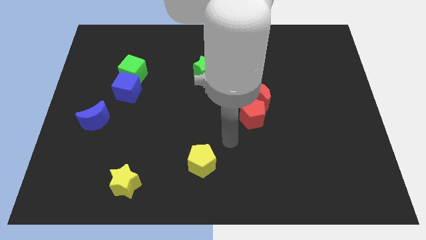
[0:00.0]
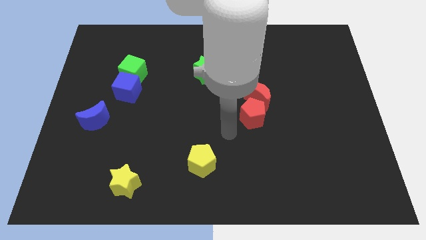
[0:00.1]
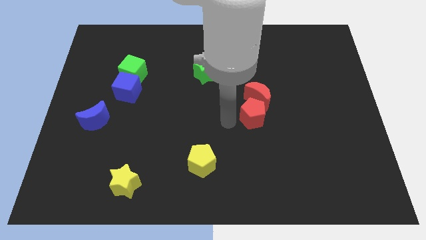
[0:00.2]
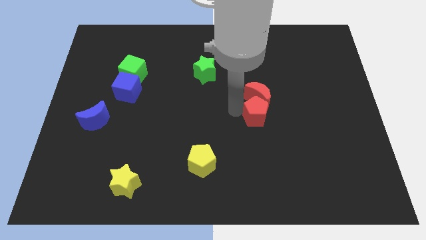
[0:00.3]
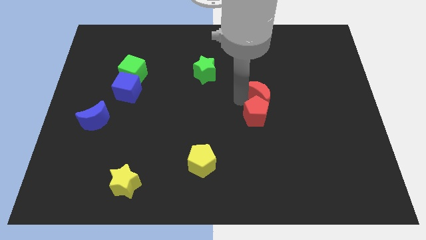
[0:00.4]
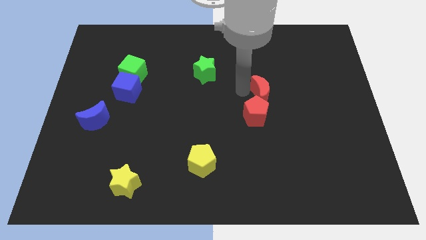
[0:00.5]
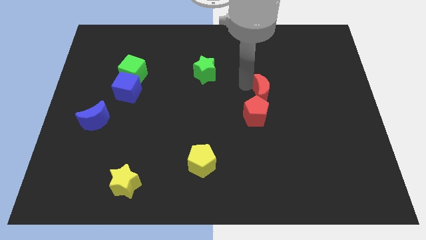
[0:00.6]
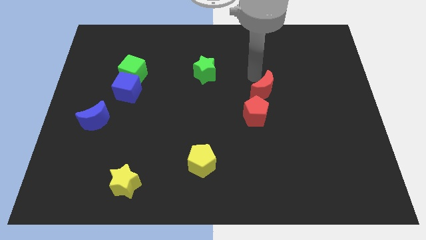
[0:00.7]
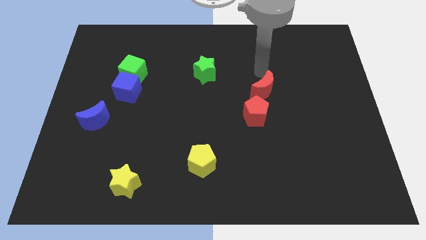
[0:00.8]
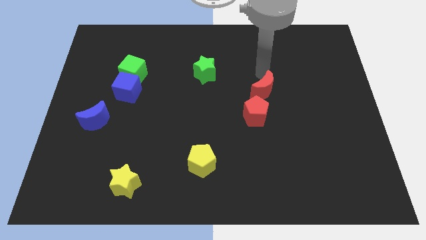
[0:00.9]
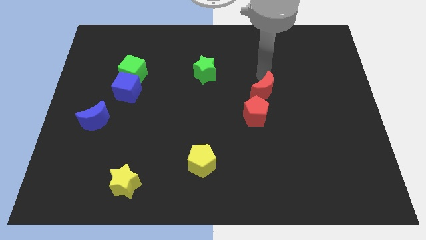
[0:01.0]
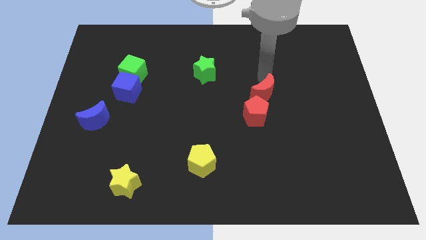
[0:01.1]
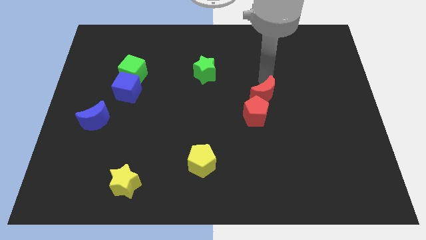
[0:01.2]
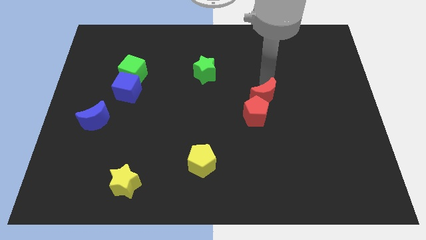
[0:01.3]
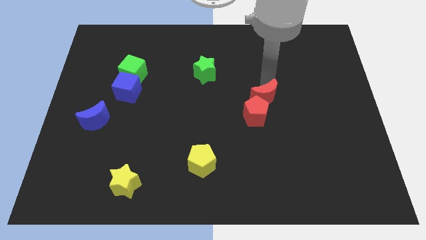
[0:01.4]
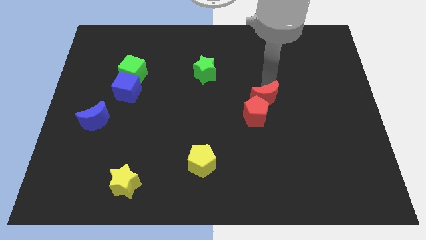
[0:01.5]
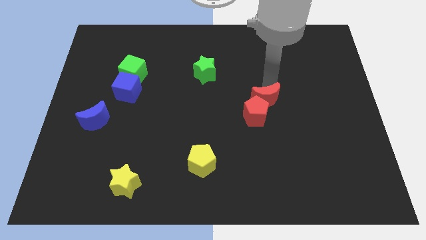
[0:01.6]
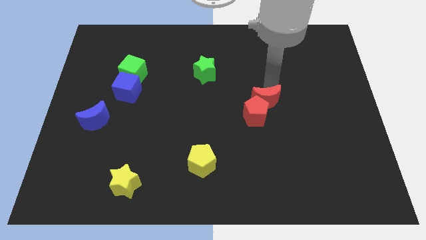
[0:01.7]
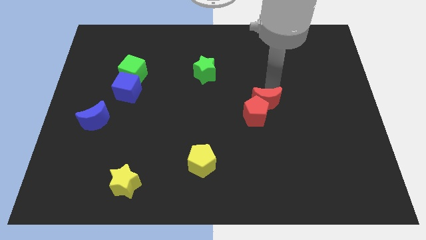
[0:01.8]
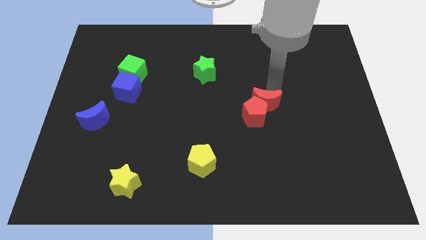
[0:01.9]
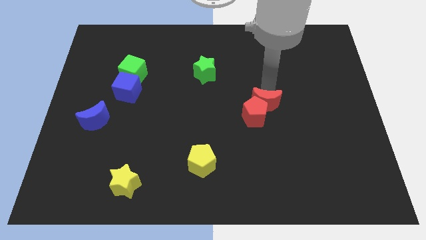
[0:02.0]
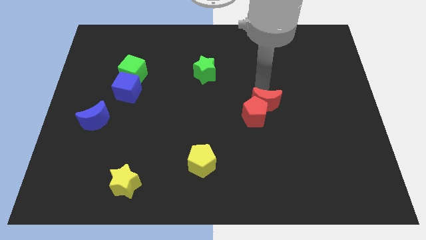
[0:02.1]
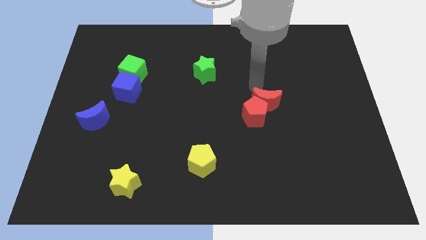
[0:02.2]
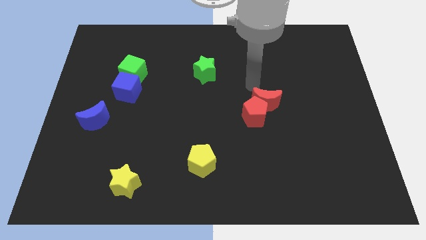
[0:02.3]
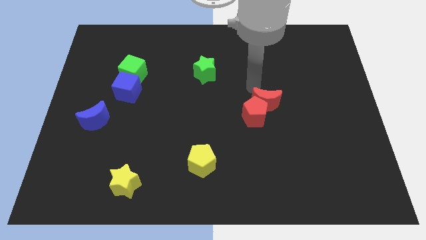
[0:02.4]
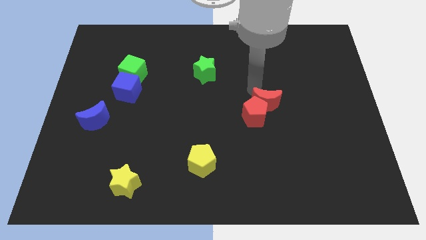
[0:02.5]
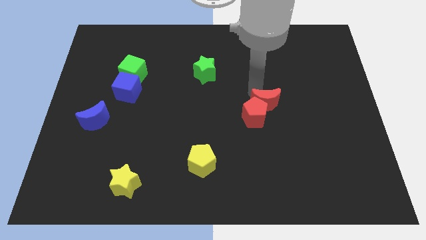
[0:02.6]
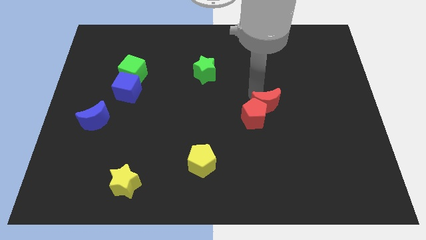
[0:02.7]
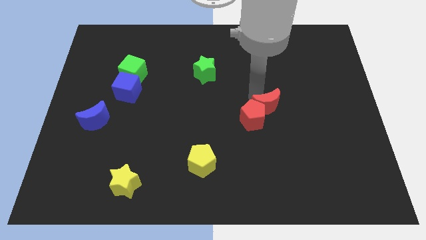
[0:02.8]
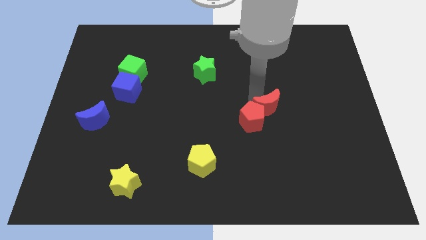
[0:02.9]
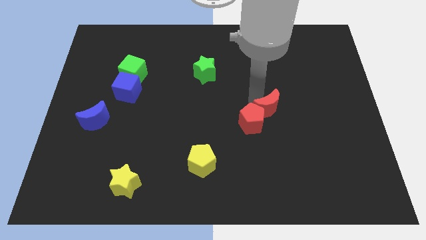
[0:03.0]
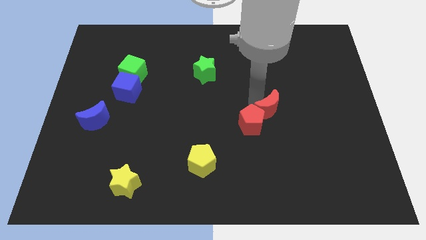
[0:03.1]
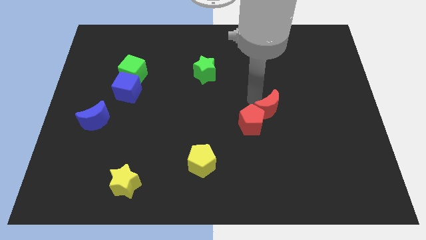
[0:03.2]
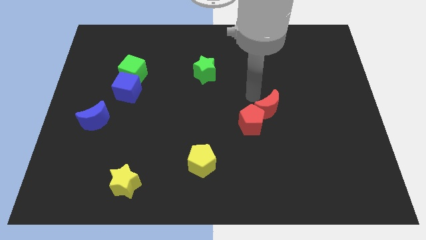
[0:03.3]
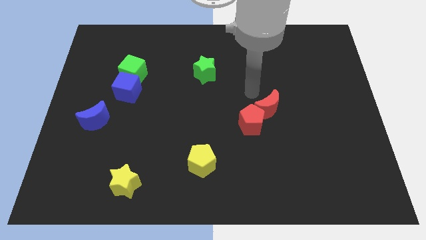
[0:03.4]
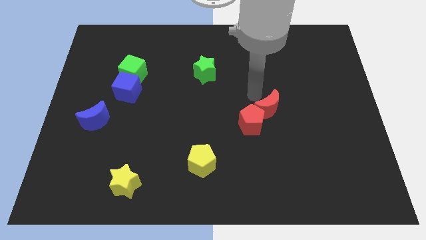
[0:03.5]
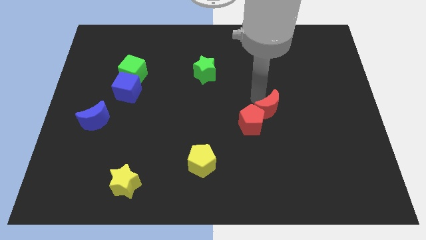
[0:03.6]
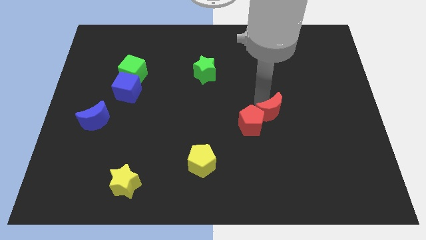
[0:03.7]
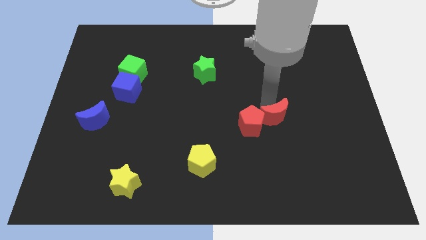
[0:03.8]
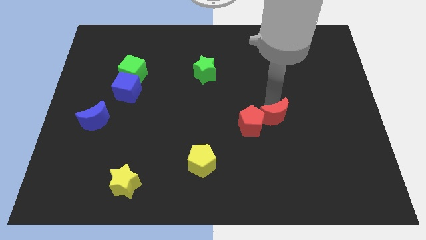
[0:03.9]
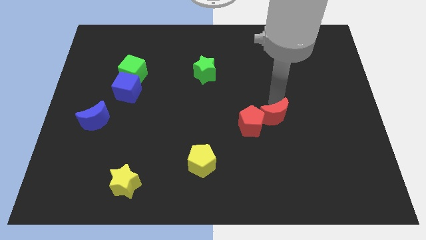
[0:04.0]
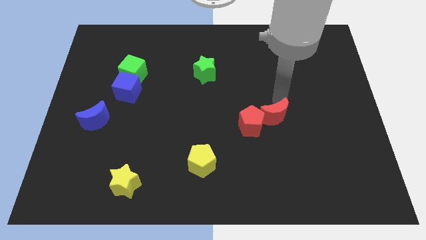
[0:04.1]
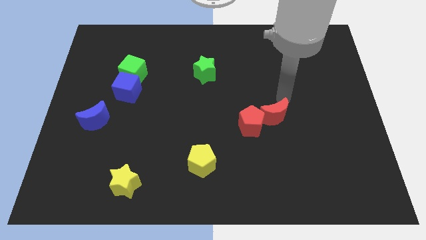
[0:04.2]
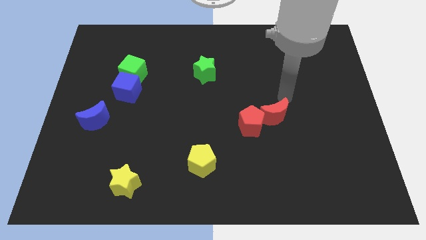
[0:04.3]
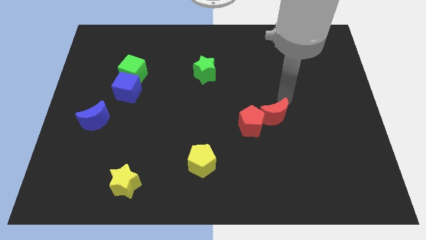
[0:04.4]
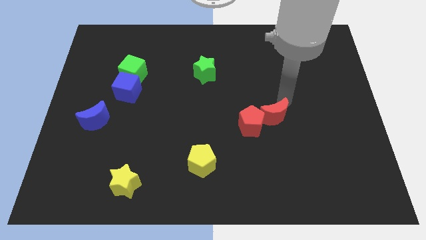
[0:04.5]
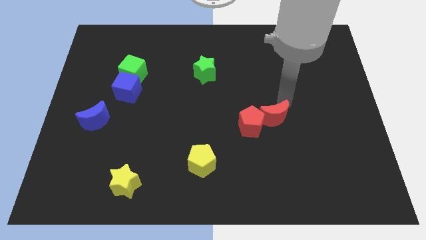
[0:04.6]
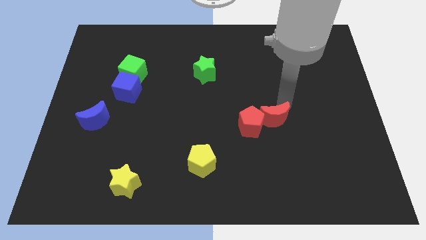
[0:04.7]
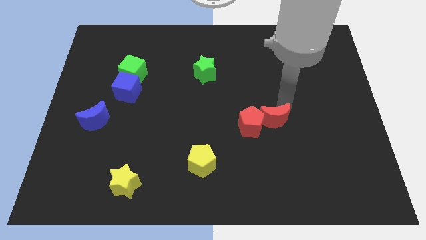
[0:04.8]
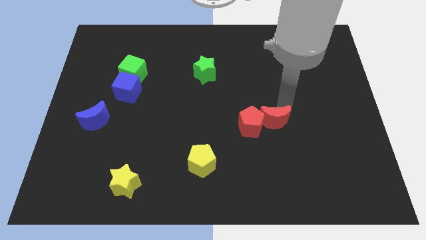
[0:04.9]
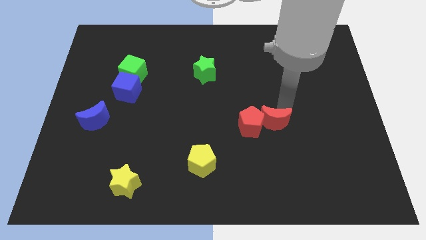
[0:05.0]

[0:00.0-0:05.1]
move the red moon a little bit down

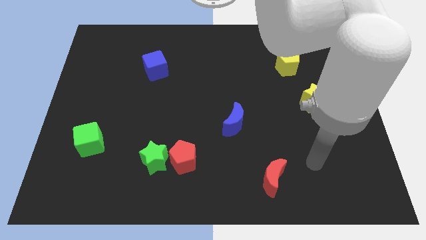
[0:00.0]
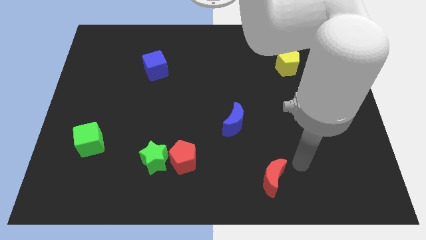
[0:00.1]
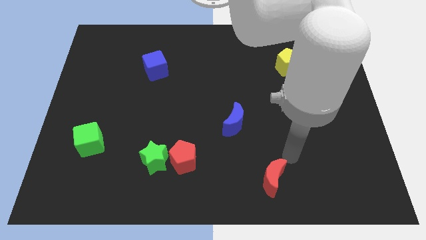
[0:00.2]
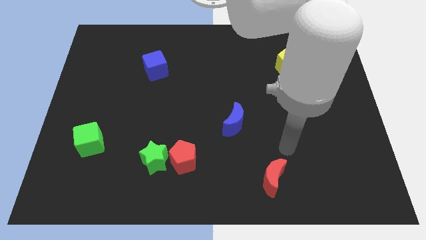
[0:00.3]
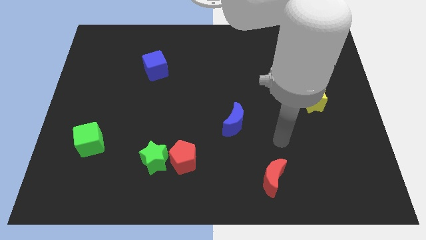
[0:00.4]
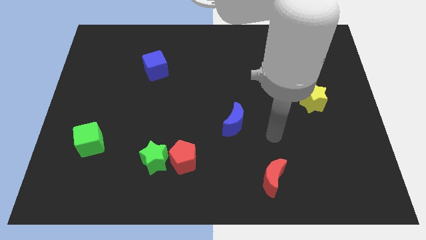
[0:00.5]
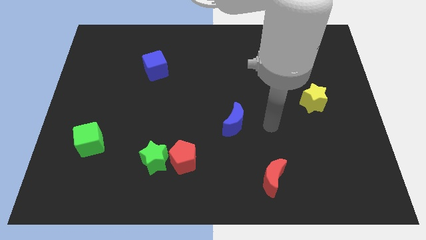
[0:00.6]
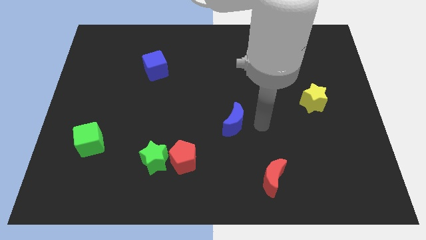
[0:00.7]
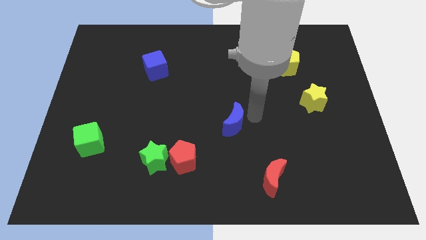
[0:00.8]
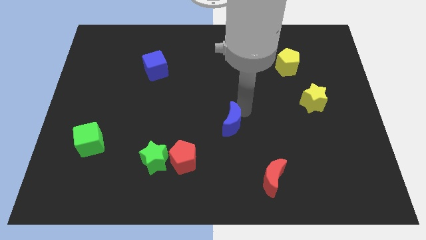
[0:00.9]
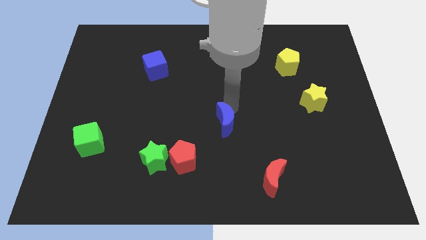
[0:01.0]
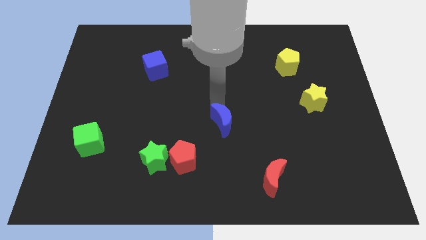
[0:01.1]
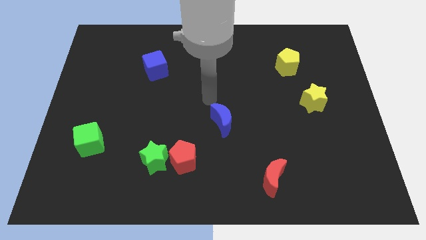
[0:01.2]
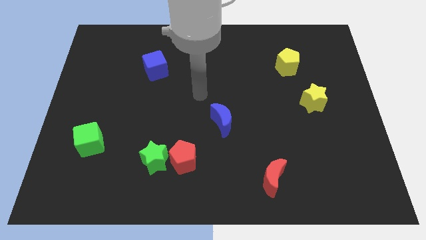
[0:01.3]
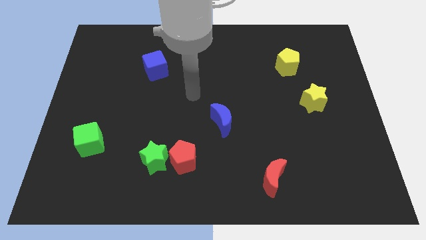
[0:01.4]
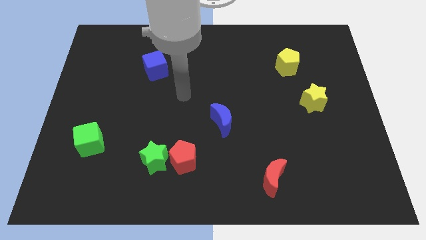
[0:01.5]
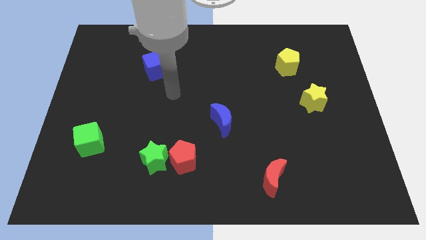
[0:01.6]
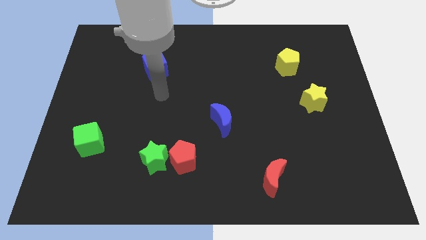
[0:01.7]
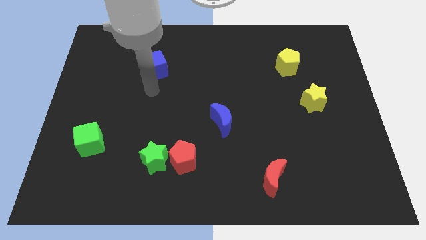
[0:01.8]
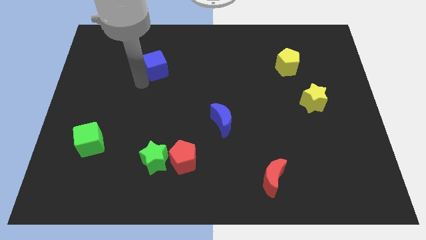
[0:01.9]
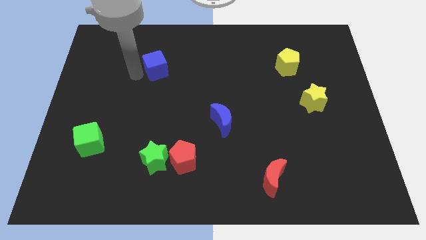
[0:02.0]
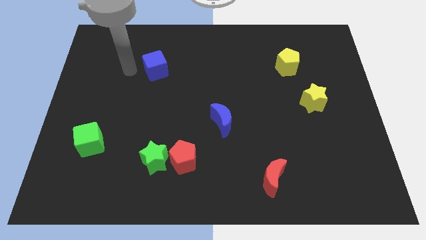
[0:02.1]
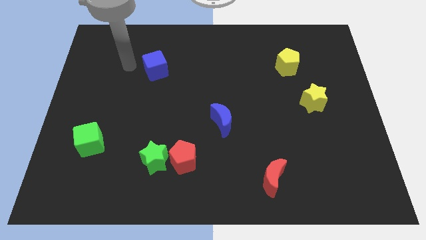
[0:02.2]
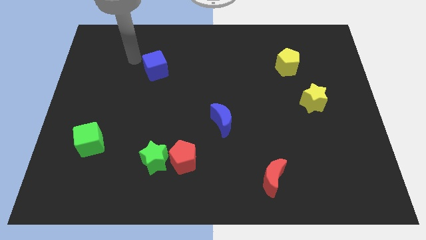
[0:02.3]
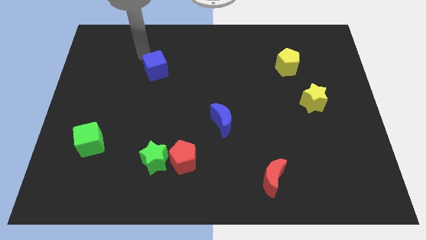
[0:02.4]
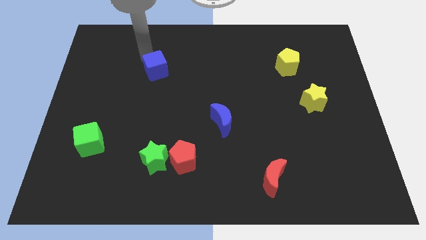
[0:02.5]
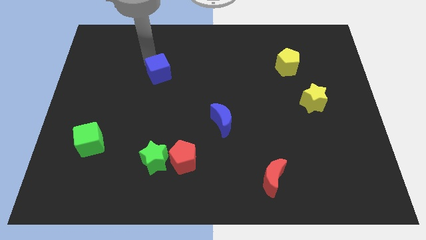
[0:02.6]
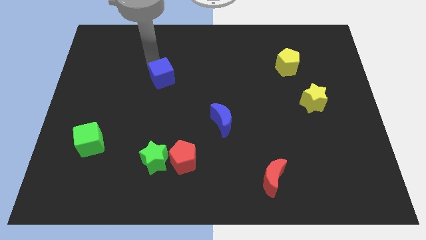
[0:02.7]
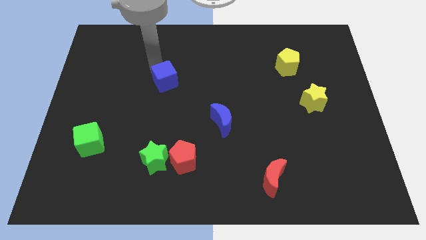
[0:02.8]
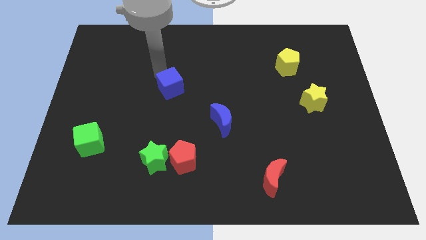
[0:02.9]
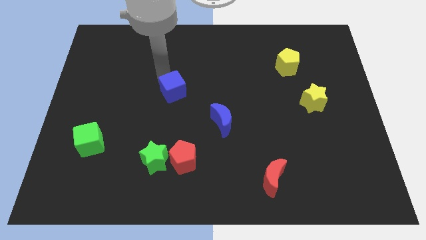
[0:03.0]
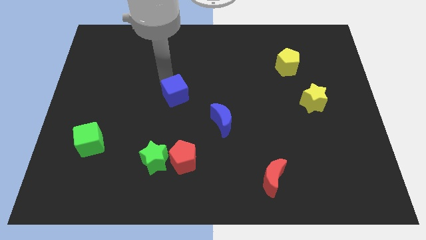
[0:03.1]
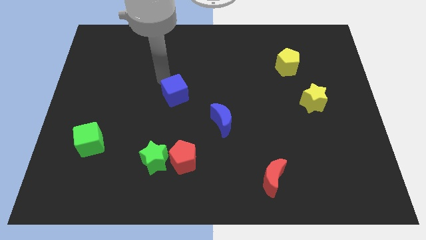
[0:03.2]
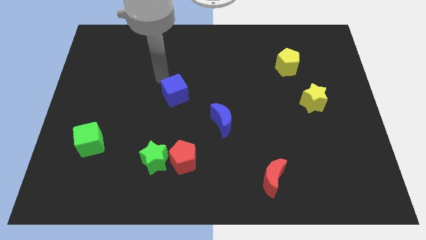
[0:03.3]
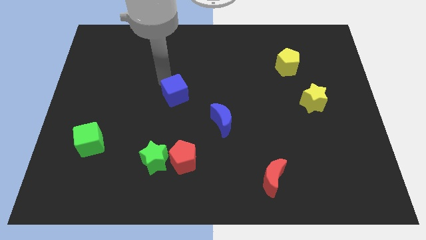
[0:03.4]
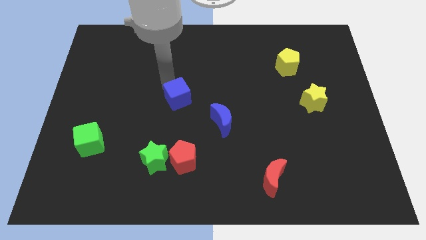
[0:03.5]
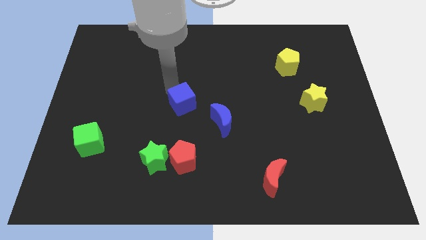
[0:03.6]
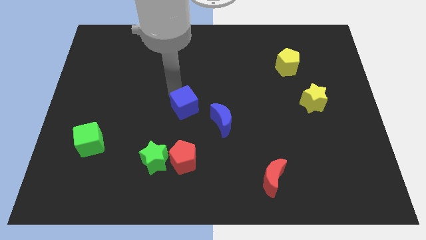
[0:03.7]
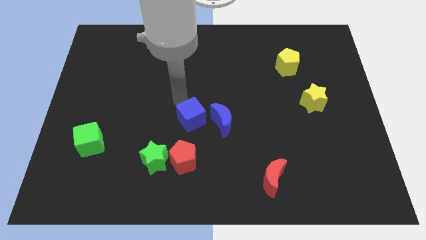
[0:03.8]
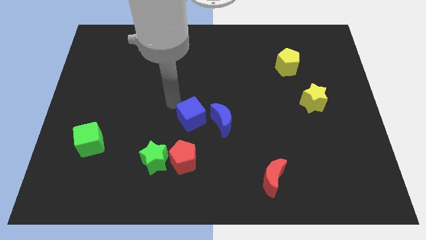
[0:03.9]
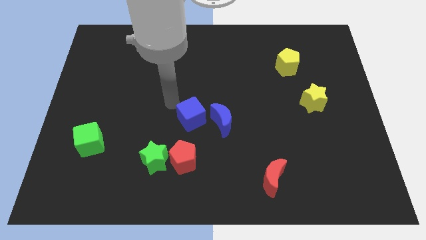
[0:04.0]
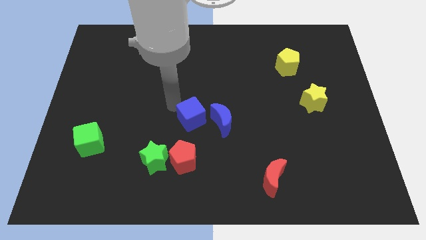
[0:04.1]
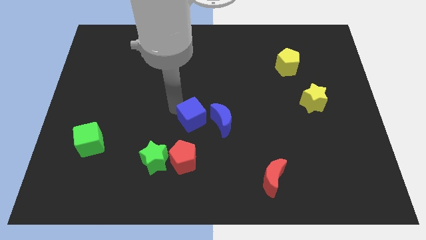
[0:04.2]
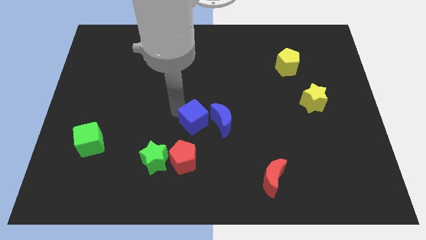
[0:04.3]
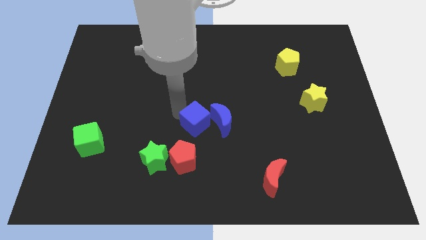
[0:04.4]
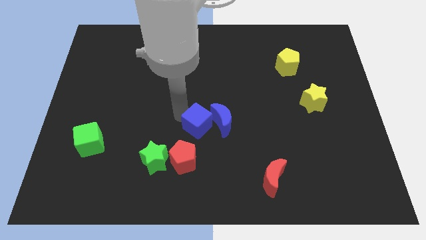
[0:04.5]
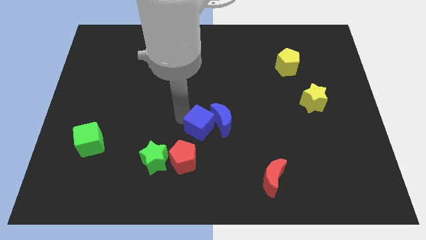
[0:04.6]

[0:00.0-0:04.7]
push the blue cube downwards and then to the right
